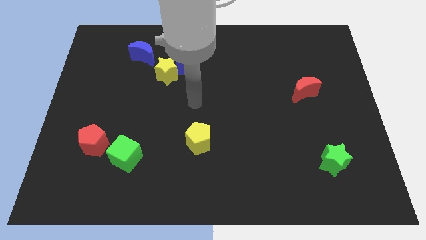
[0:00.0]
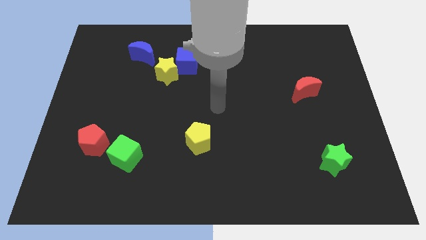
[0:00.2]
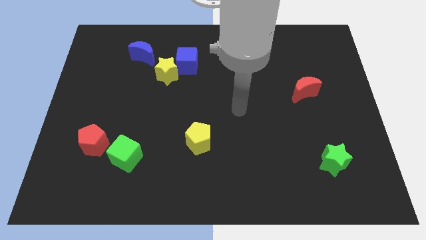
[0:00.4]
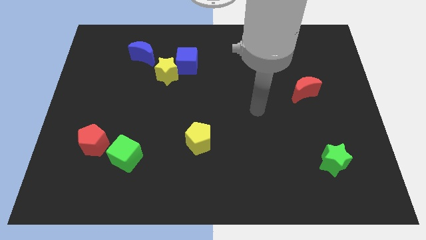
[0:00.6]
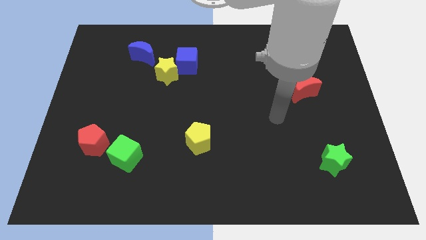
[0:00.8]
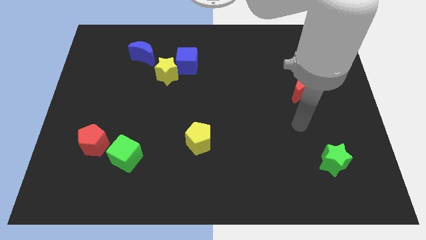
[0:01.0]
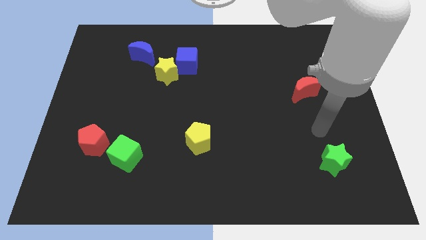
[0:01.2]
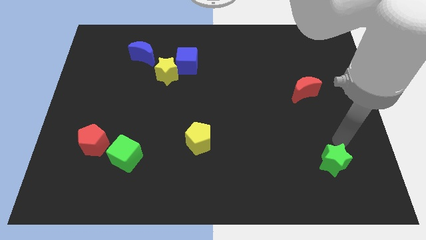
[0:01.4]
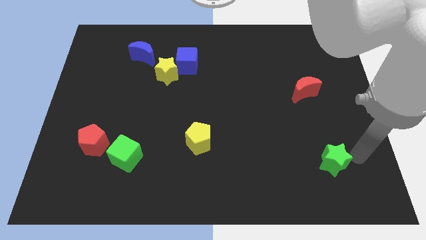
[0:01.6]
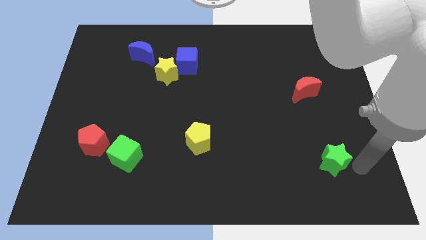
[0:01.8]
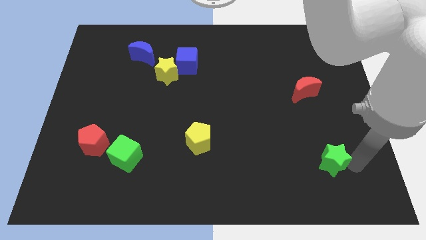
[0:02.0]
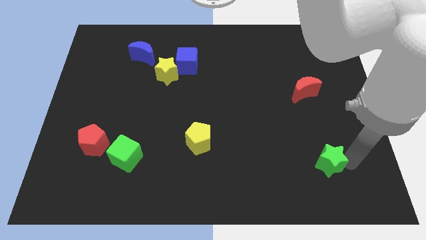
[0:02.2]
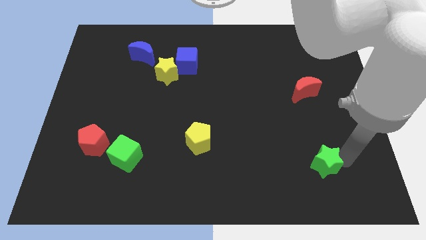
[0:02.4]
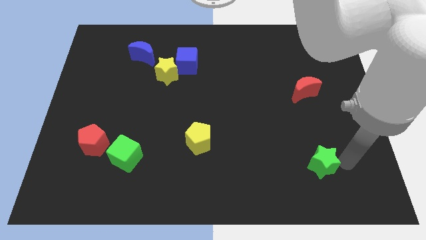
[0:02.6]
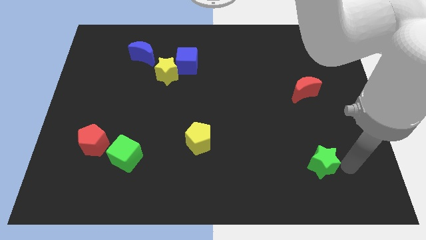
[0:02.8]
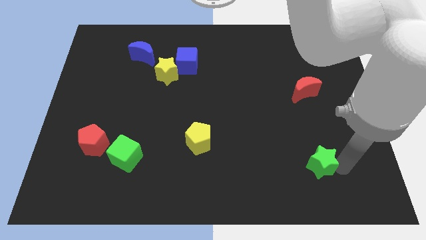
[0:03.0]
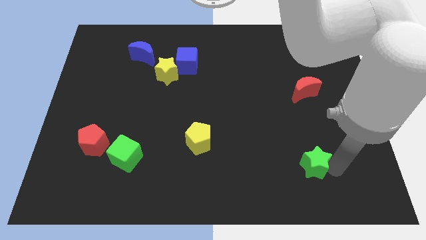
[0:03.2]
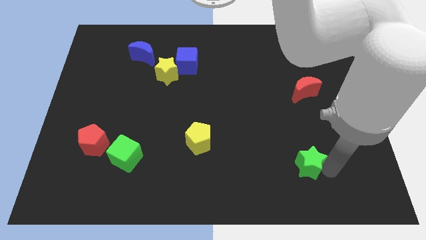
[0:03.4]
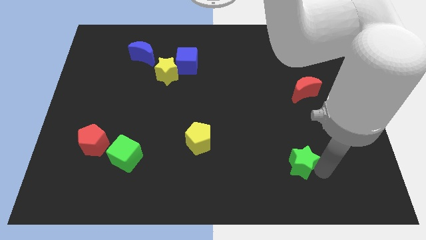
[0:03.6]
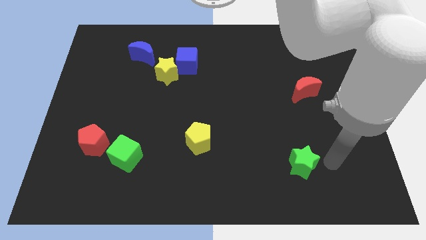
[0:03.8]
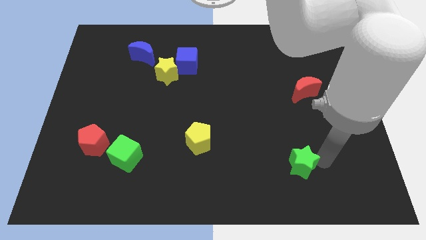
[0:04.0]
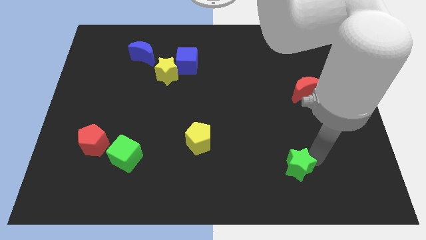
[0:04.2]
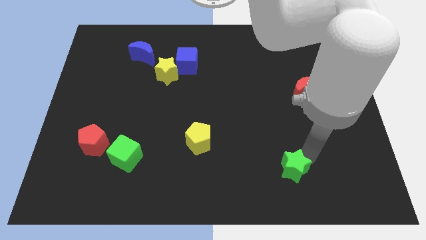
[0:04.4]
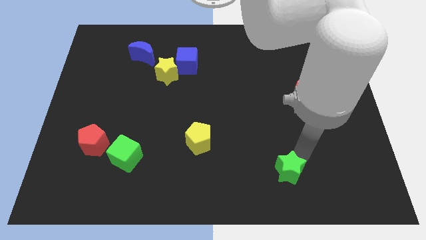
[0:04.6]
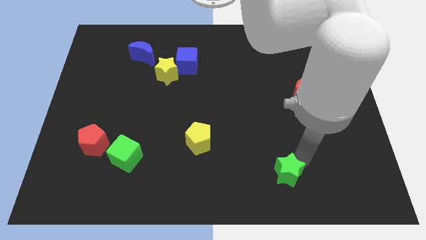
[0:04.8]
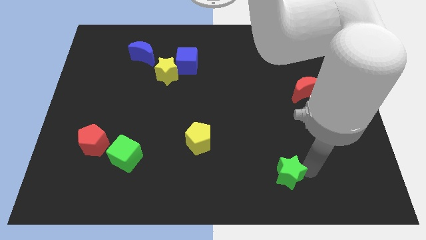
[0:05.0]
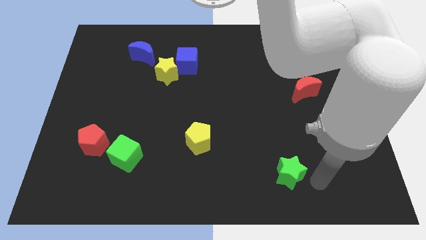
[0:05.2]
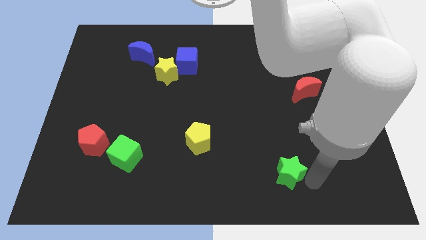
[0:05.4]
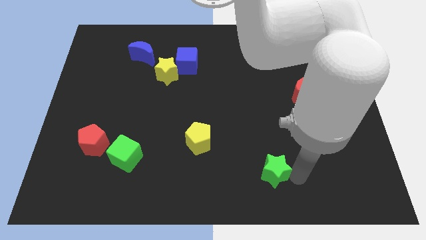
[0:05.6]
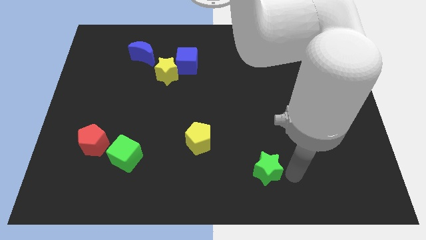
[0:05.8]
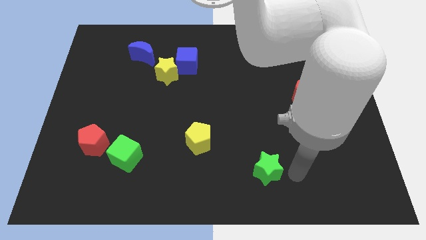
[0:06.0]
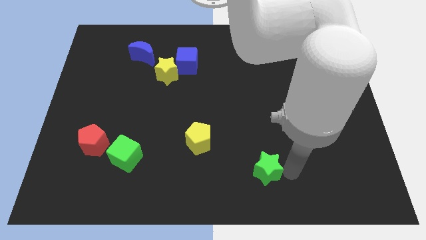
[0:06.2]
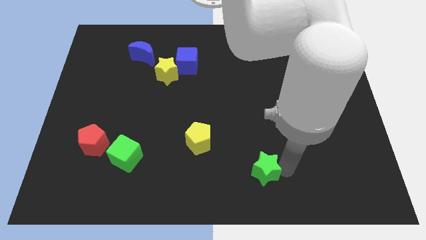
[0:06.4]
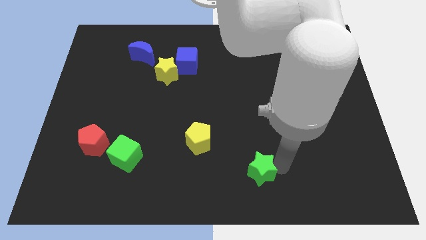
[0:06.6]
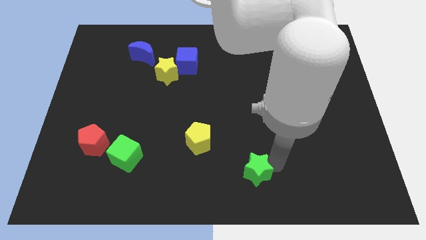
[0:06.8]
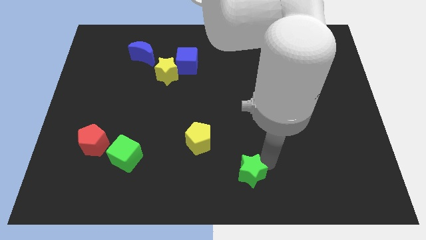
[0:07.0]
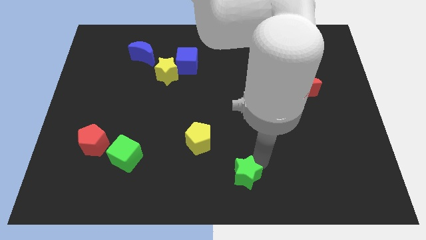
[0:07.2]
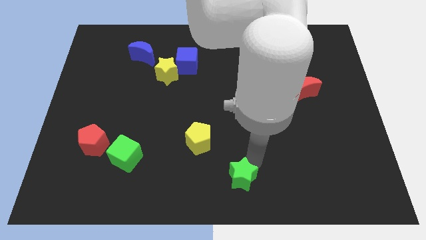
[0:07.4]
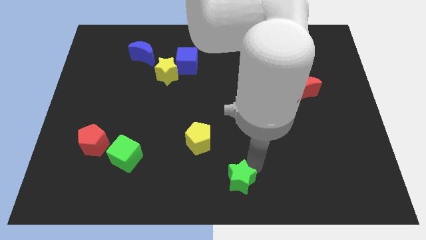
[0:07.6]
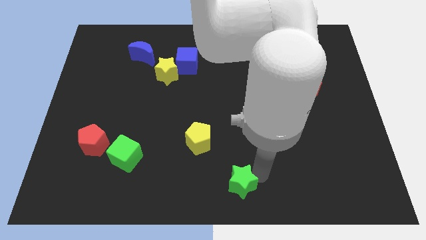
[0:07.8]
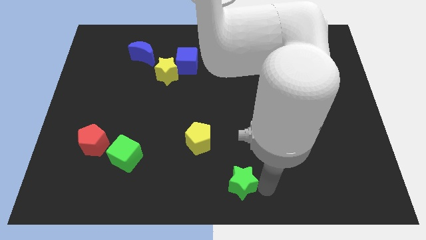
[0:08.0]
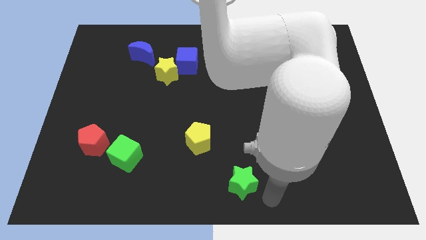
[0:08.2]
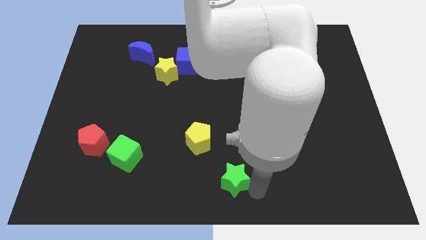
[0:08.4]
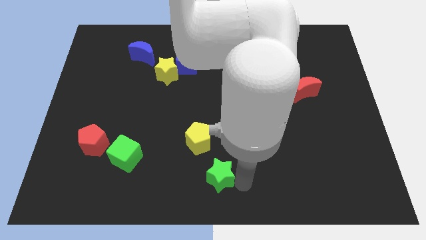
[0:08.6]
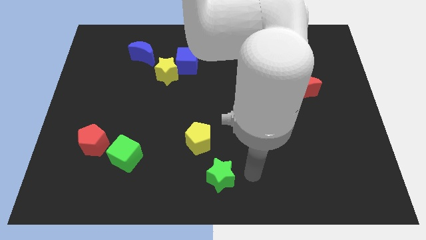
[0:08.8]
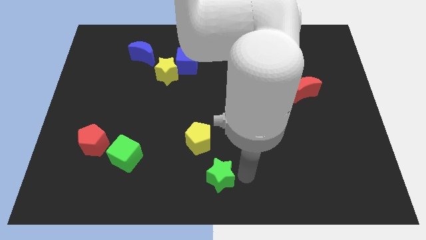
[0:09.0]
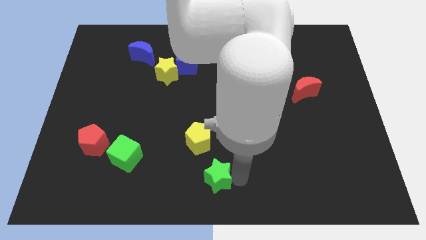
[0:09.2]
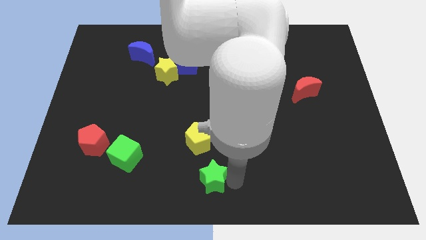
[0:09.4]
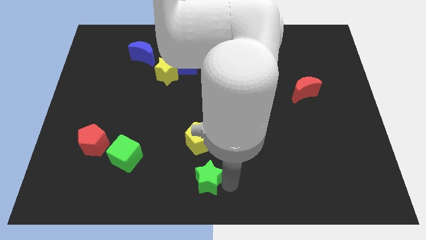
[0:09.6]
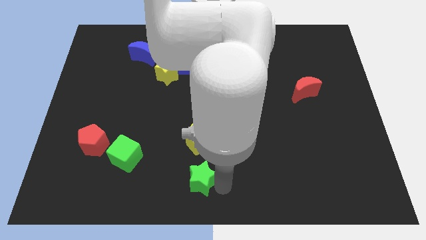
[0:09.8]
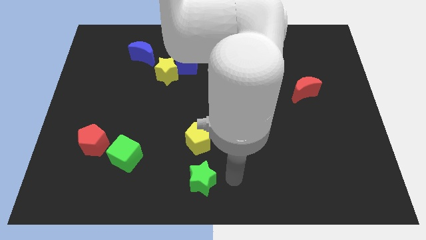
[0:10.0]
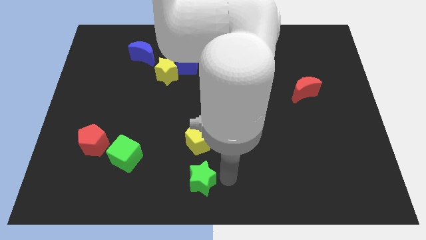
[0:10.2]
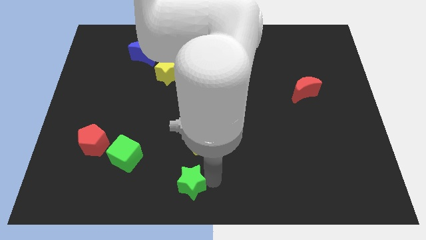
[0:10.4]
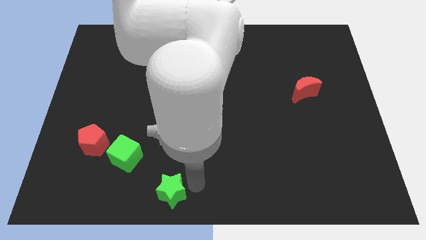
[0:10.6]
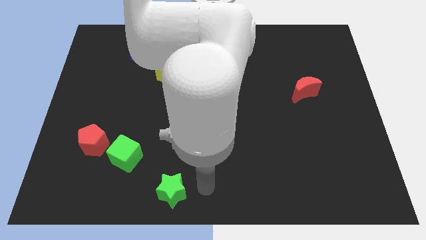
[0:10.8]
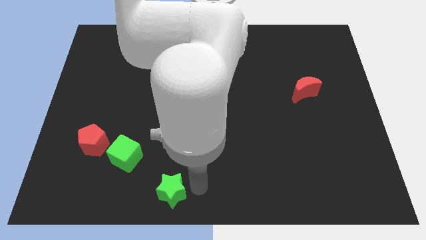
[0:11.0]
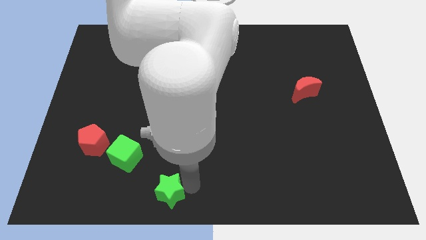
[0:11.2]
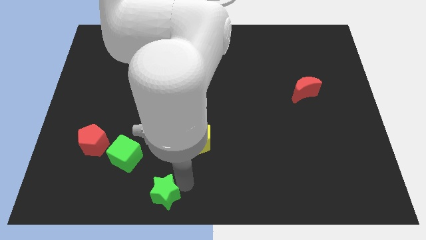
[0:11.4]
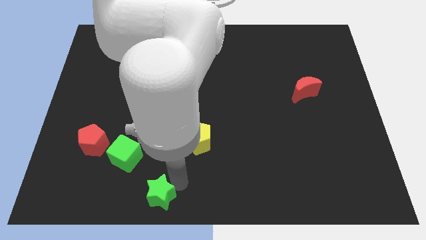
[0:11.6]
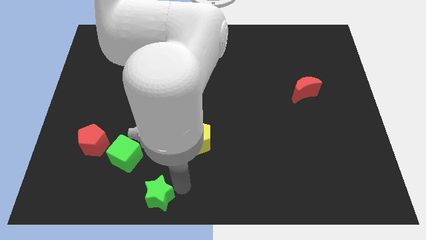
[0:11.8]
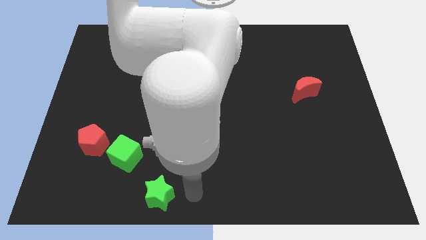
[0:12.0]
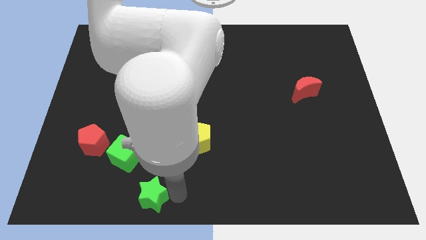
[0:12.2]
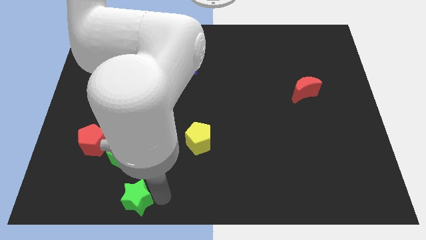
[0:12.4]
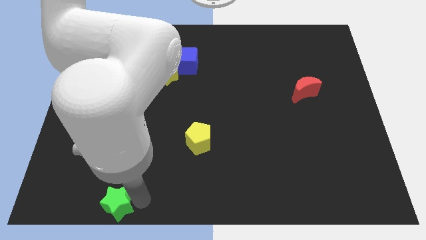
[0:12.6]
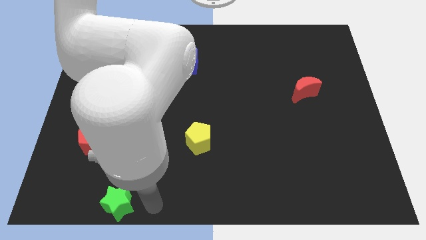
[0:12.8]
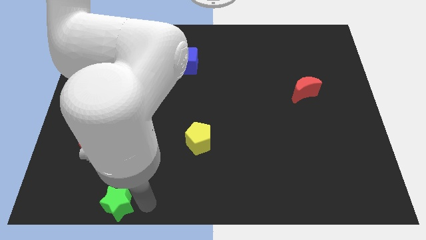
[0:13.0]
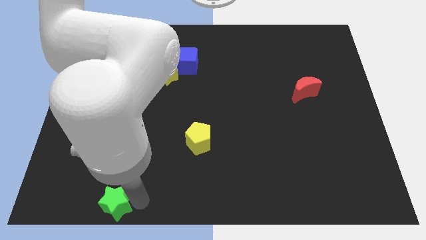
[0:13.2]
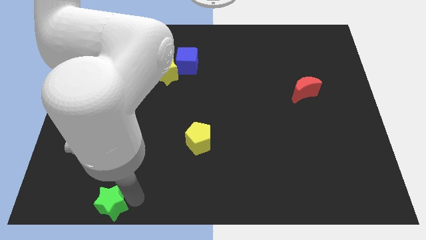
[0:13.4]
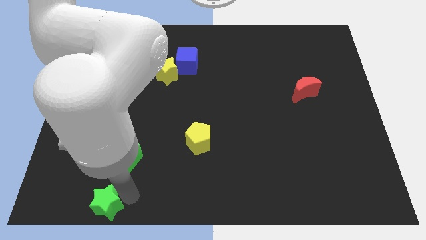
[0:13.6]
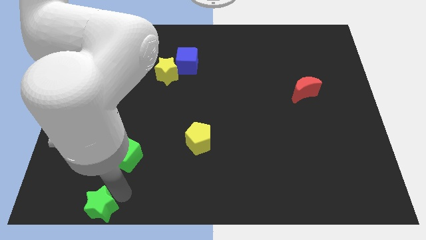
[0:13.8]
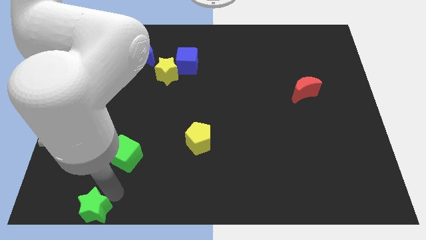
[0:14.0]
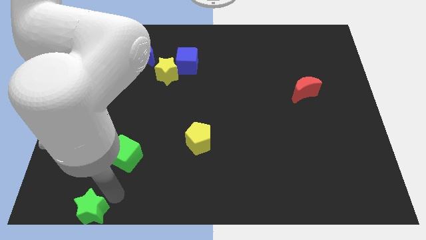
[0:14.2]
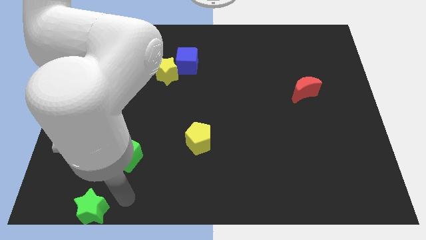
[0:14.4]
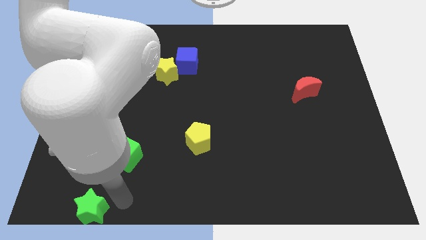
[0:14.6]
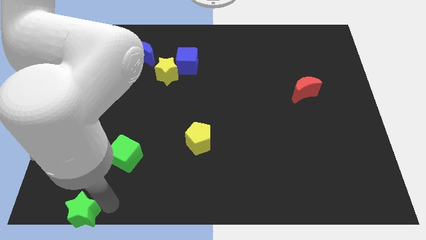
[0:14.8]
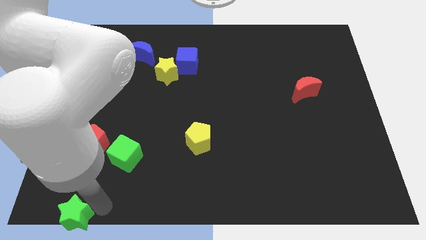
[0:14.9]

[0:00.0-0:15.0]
put the green star to the bottom left of the board

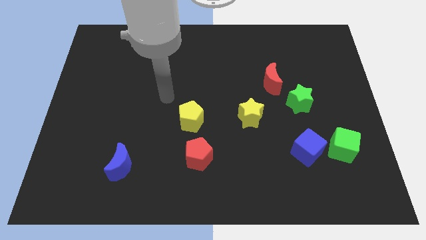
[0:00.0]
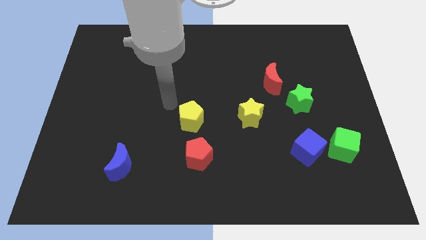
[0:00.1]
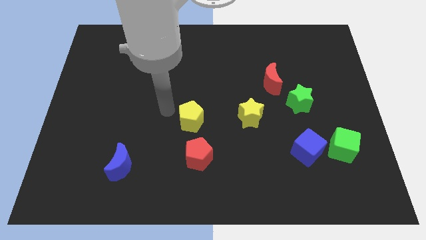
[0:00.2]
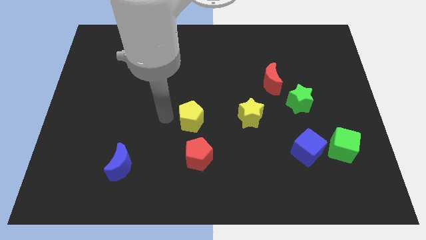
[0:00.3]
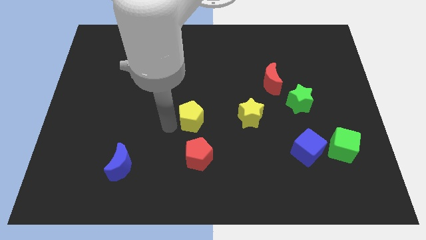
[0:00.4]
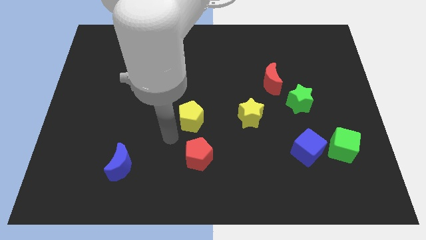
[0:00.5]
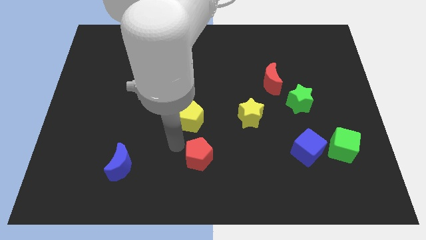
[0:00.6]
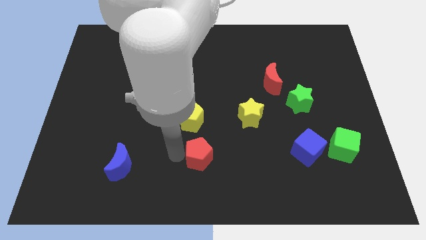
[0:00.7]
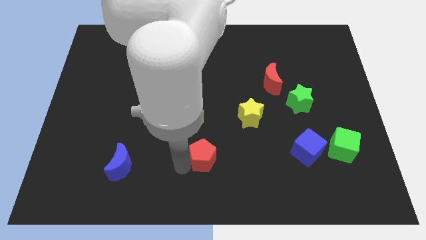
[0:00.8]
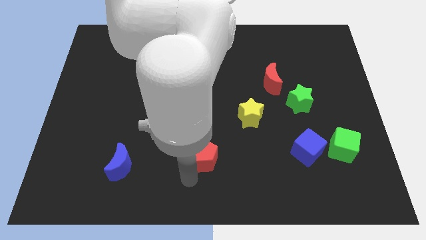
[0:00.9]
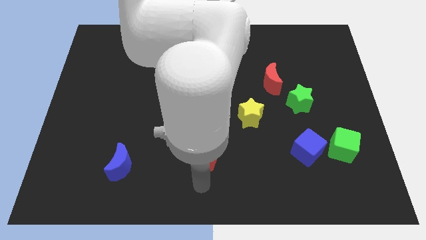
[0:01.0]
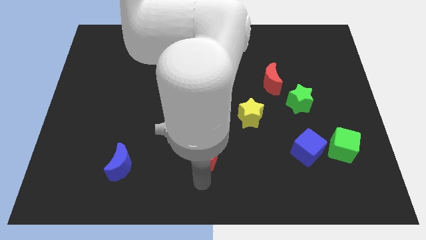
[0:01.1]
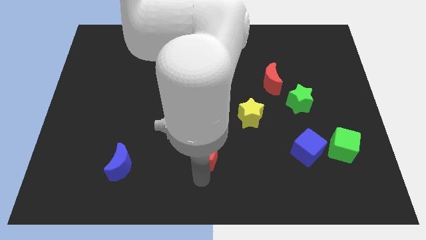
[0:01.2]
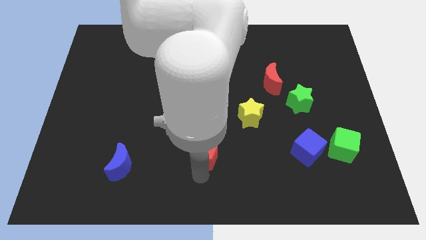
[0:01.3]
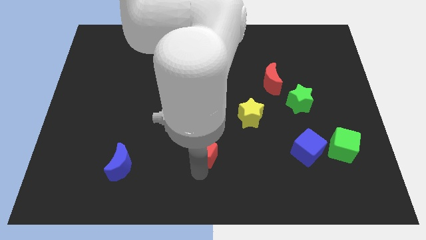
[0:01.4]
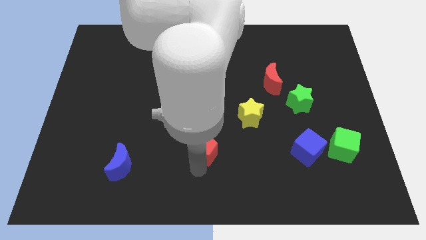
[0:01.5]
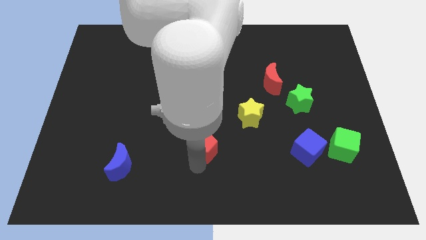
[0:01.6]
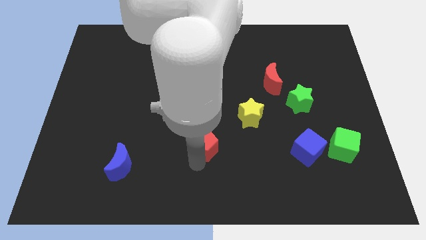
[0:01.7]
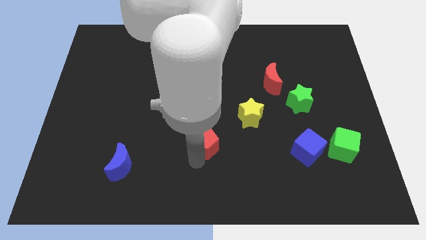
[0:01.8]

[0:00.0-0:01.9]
move the red pentagon to the center
